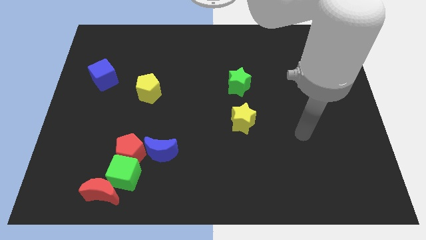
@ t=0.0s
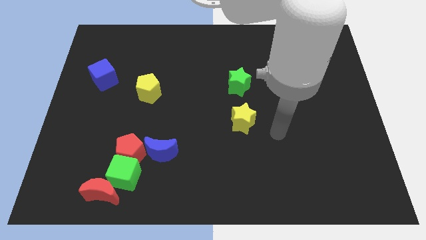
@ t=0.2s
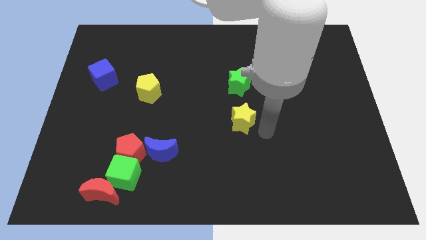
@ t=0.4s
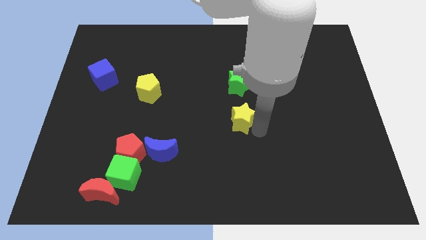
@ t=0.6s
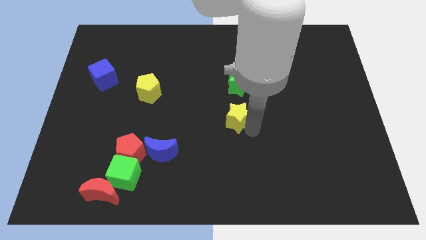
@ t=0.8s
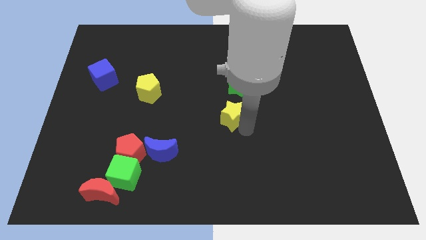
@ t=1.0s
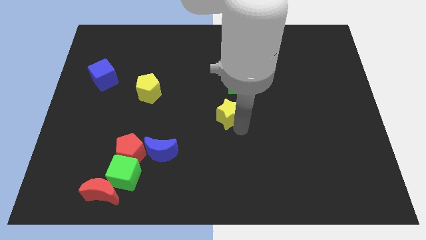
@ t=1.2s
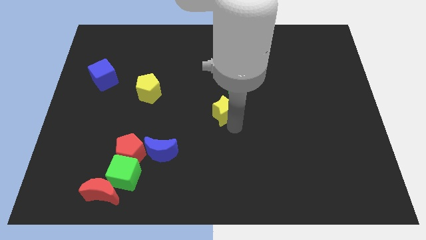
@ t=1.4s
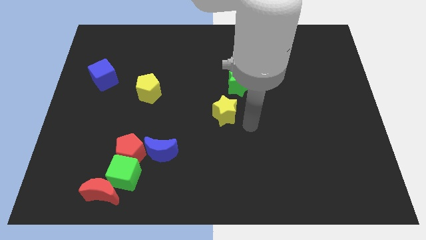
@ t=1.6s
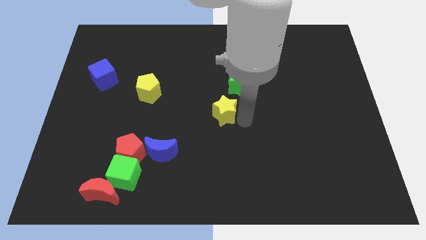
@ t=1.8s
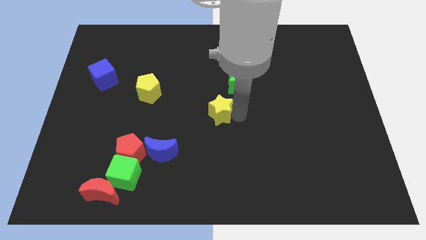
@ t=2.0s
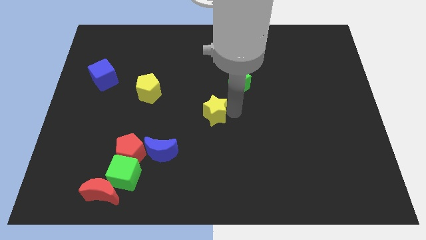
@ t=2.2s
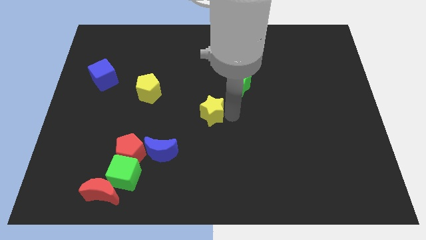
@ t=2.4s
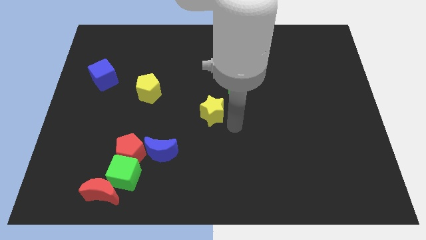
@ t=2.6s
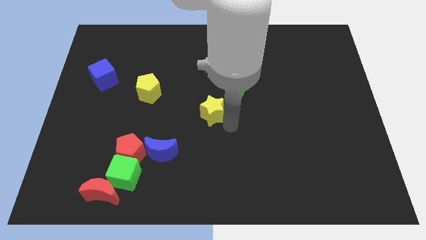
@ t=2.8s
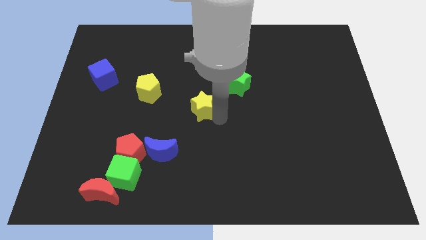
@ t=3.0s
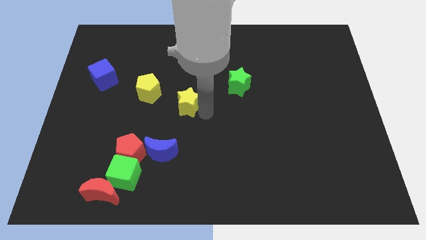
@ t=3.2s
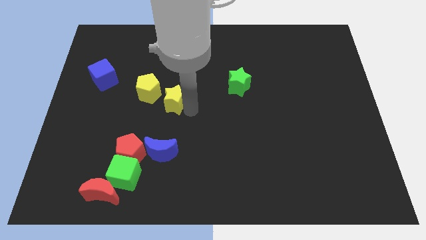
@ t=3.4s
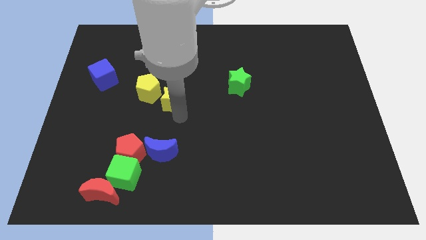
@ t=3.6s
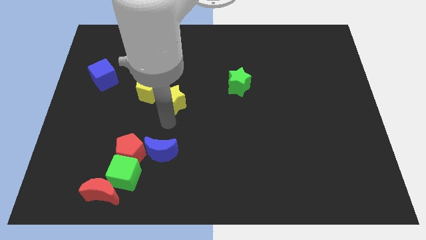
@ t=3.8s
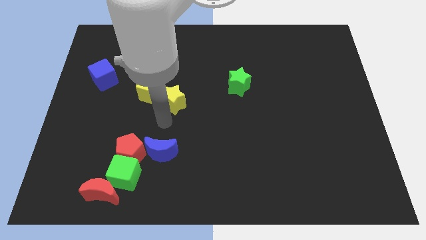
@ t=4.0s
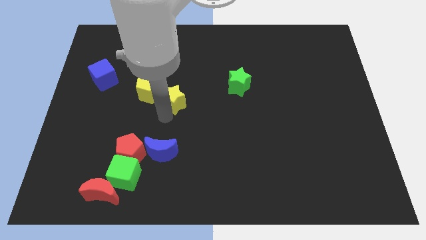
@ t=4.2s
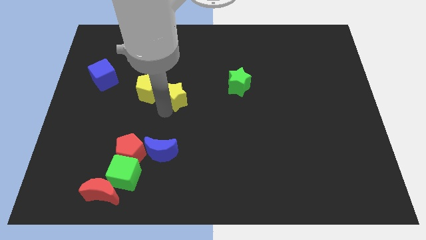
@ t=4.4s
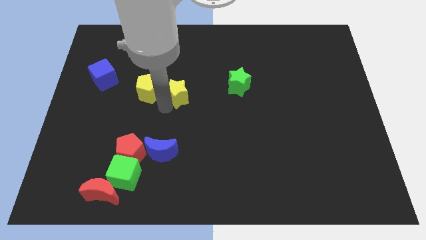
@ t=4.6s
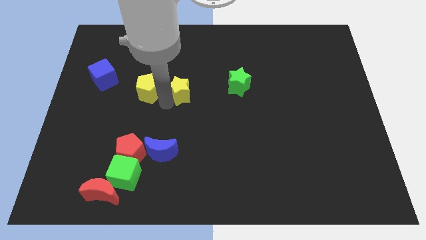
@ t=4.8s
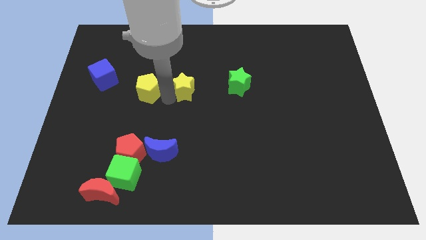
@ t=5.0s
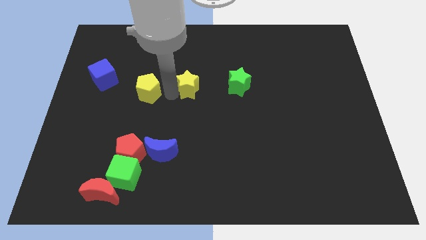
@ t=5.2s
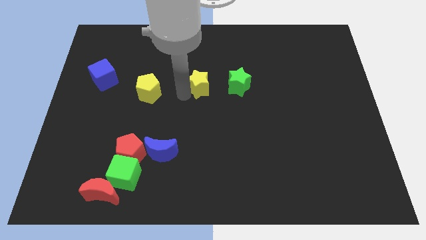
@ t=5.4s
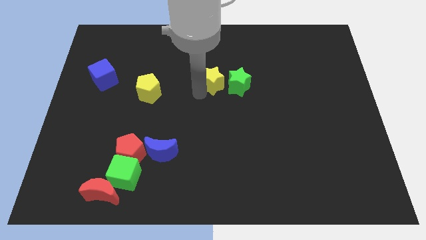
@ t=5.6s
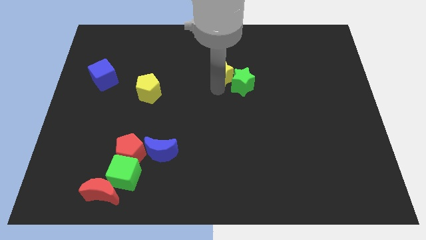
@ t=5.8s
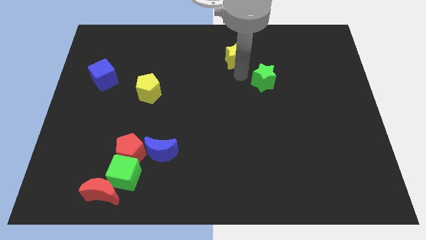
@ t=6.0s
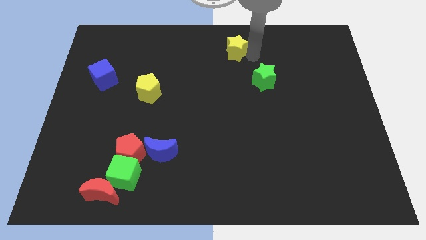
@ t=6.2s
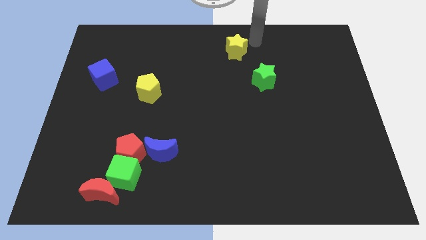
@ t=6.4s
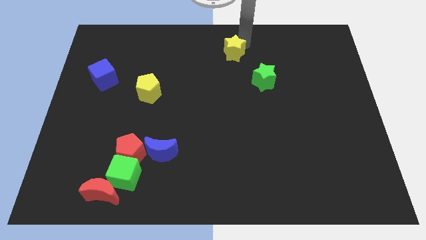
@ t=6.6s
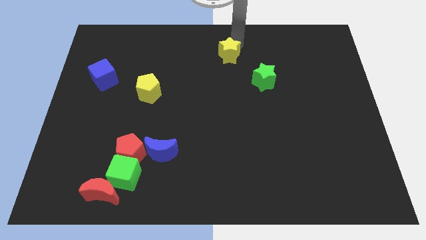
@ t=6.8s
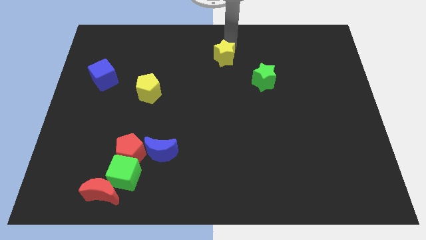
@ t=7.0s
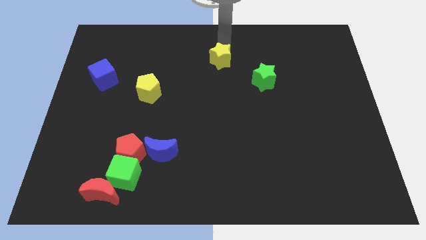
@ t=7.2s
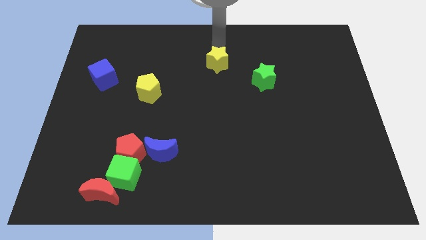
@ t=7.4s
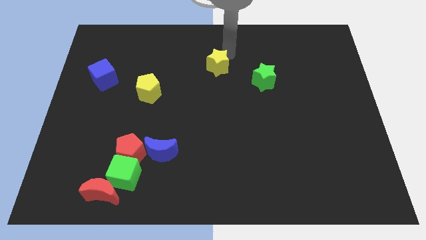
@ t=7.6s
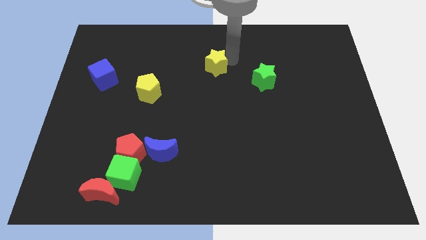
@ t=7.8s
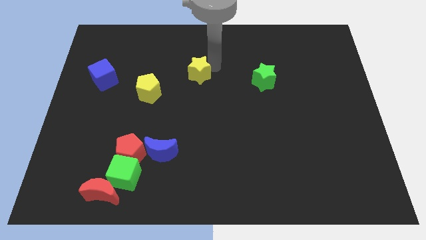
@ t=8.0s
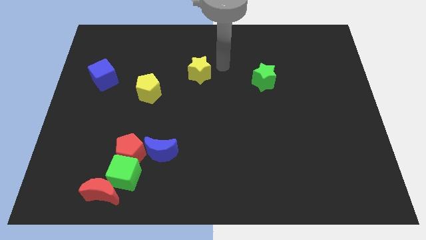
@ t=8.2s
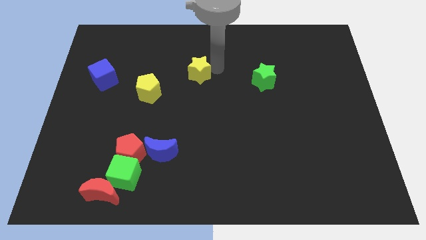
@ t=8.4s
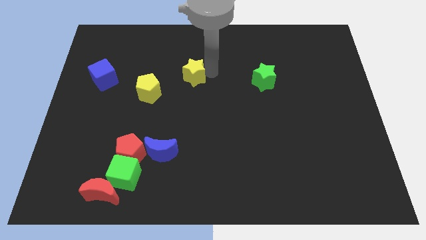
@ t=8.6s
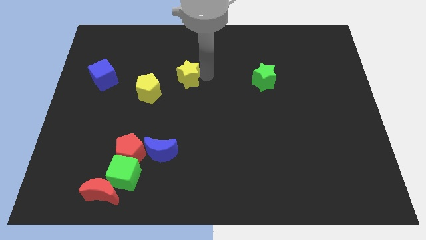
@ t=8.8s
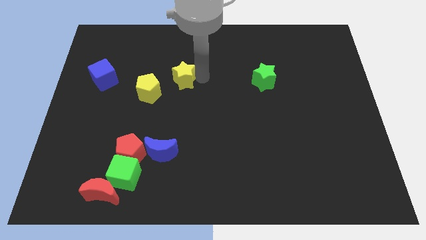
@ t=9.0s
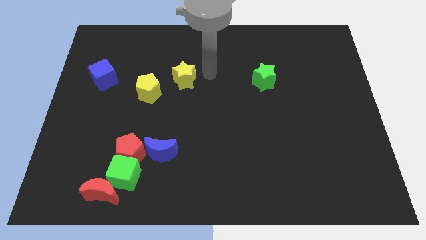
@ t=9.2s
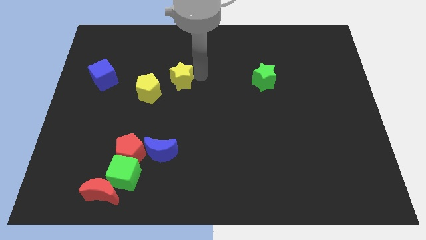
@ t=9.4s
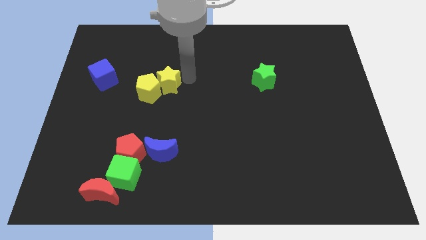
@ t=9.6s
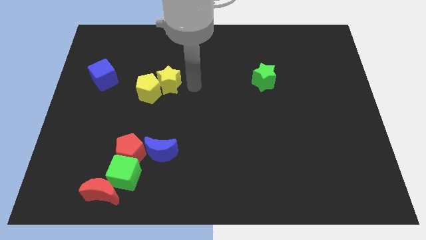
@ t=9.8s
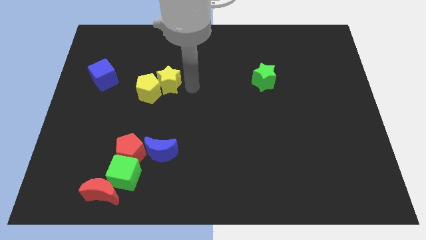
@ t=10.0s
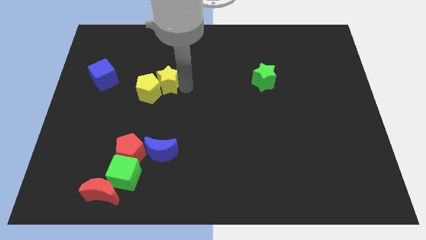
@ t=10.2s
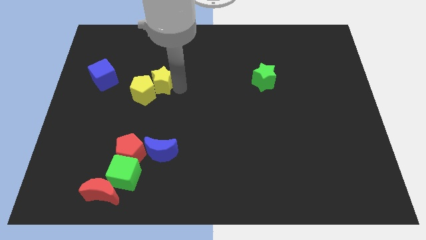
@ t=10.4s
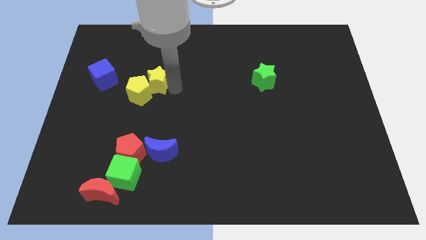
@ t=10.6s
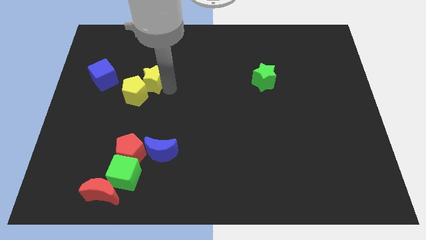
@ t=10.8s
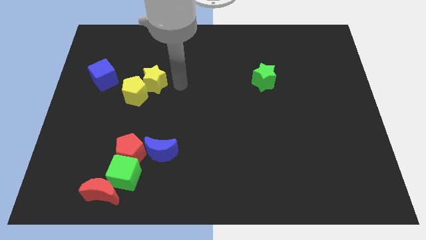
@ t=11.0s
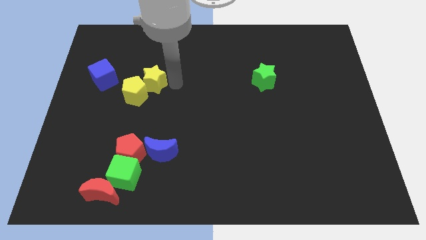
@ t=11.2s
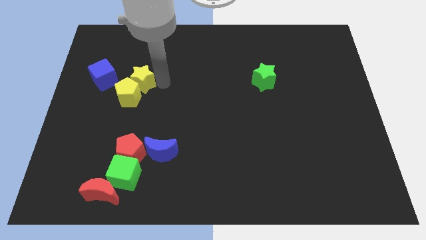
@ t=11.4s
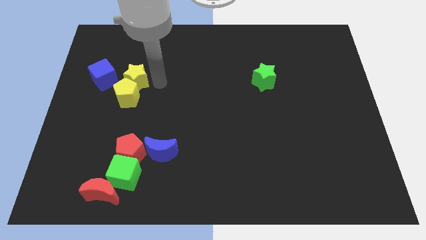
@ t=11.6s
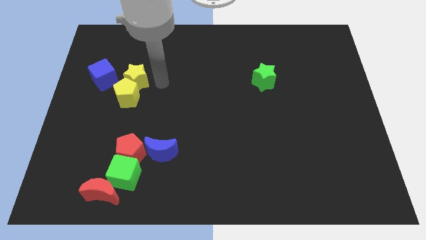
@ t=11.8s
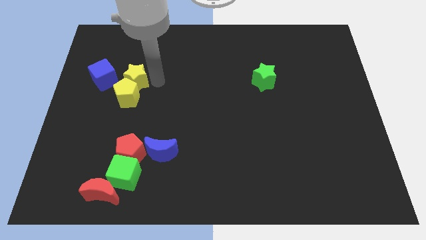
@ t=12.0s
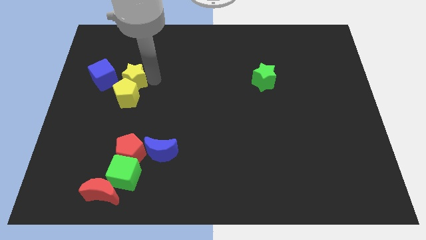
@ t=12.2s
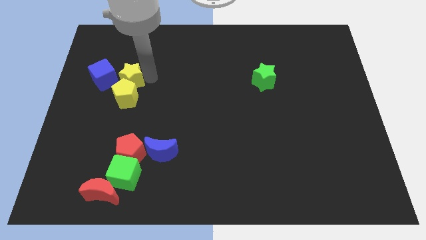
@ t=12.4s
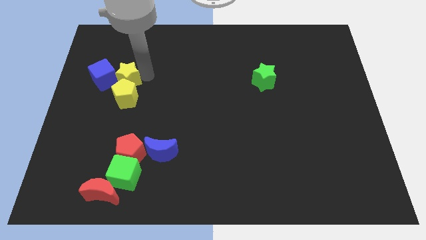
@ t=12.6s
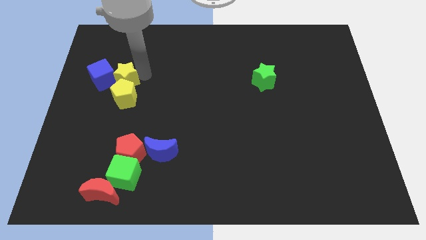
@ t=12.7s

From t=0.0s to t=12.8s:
move the yellow star towards the blue cube

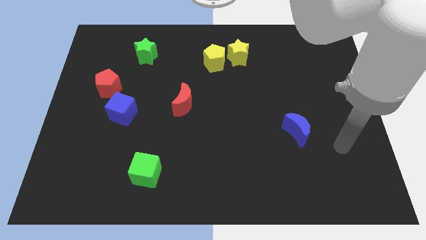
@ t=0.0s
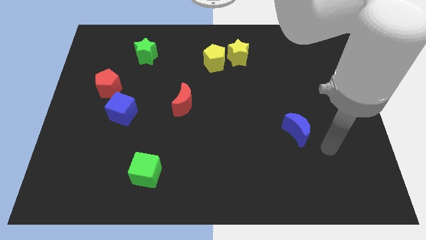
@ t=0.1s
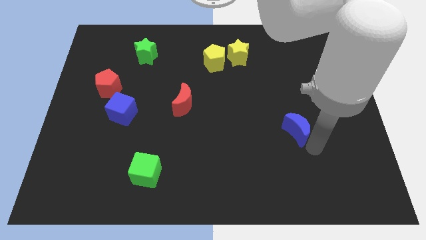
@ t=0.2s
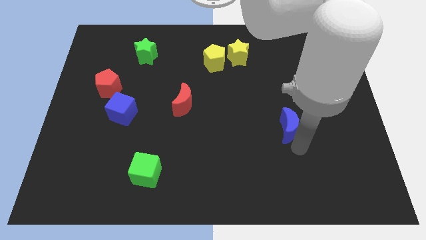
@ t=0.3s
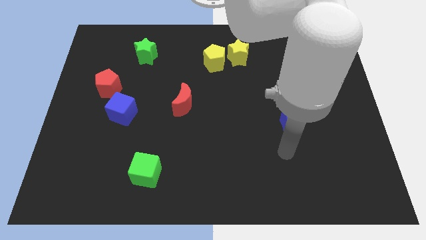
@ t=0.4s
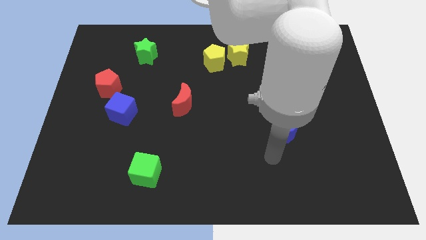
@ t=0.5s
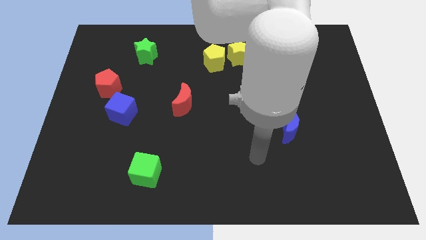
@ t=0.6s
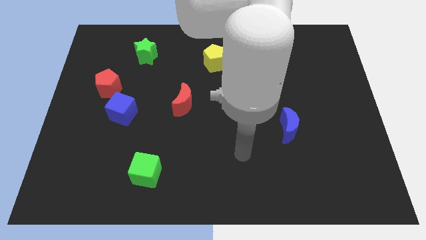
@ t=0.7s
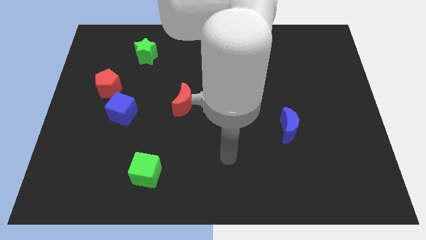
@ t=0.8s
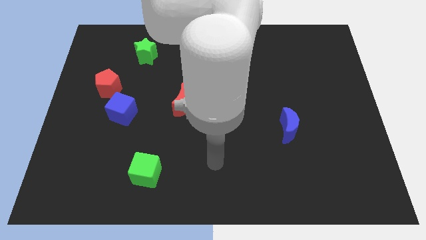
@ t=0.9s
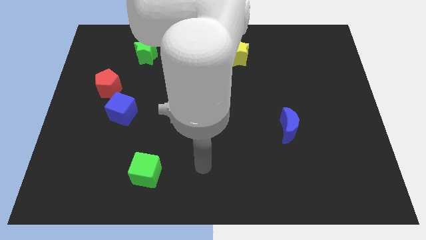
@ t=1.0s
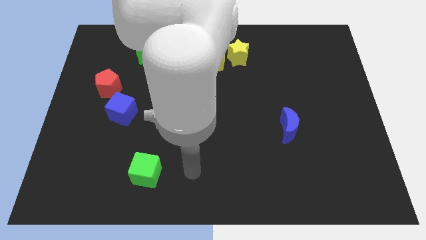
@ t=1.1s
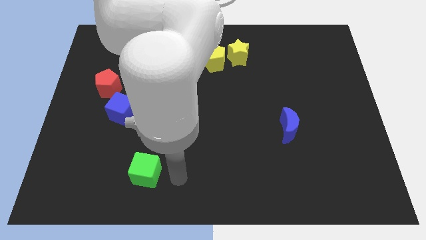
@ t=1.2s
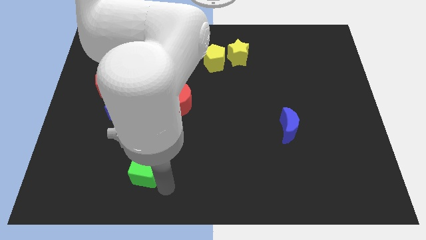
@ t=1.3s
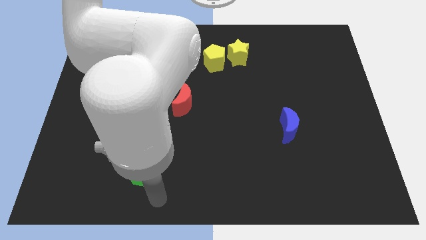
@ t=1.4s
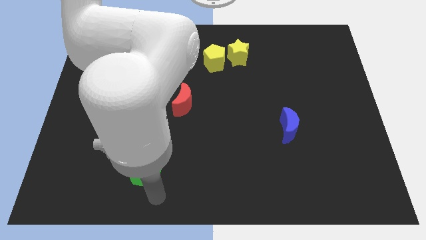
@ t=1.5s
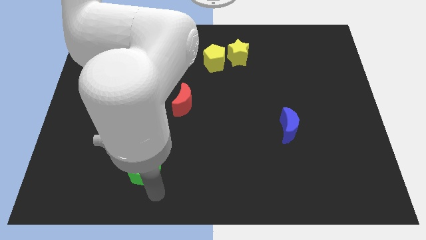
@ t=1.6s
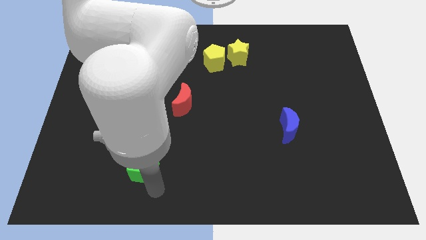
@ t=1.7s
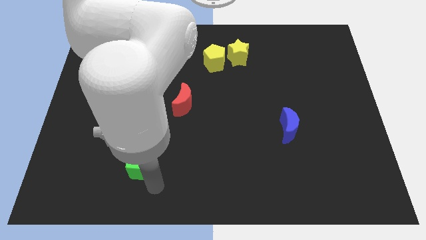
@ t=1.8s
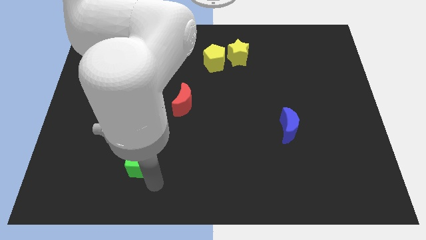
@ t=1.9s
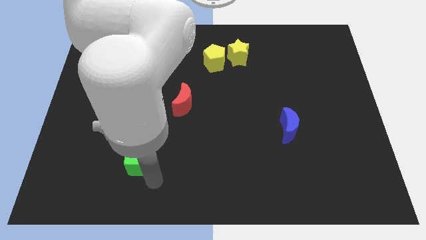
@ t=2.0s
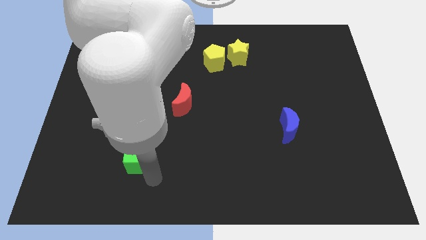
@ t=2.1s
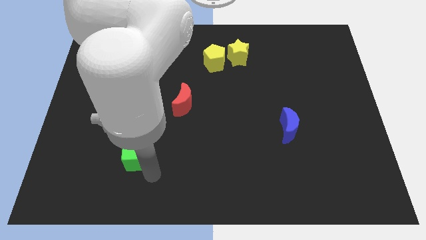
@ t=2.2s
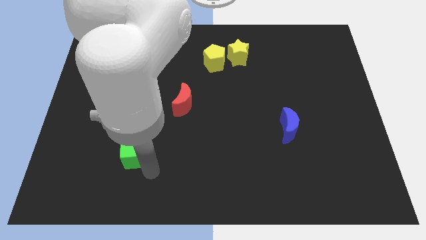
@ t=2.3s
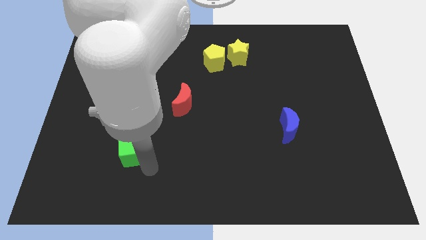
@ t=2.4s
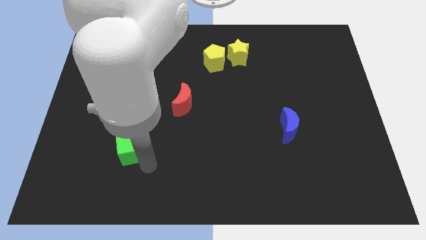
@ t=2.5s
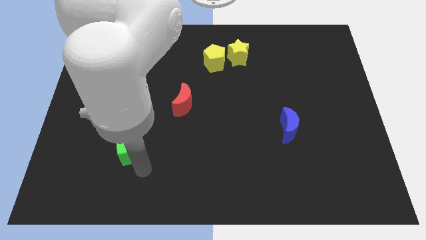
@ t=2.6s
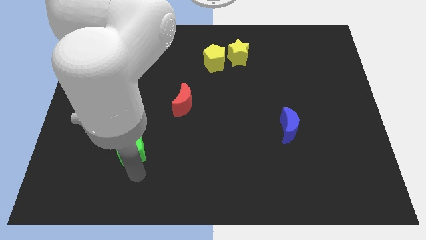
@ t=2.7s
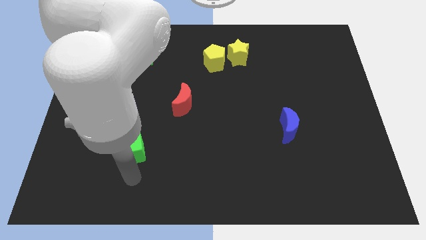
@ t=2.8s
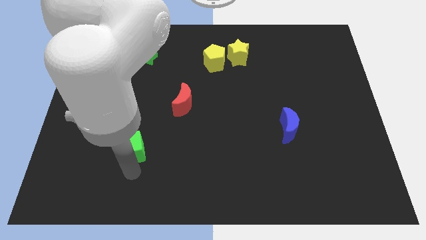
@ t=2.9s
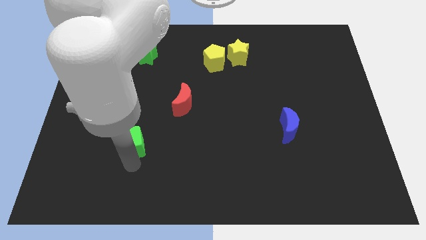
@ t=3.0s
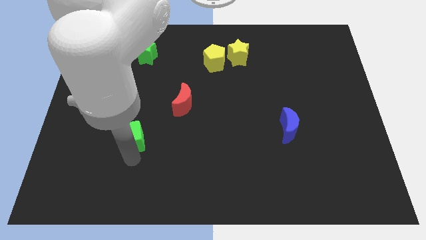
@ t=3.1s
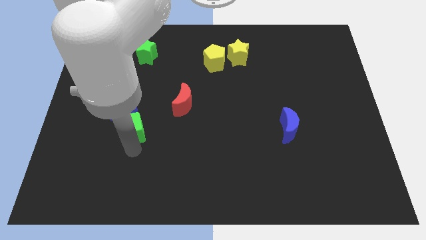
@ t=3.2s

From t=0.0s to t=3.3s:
move the green cube towards the blue cube
